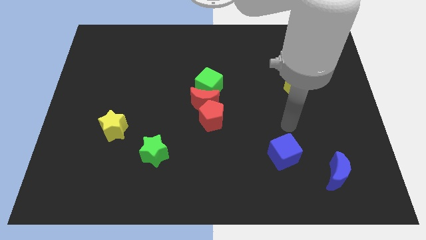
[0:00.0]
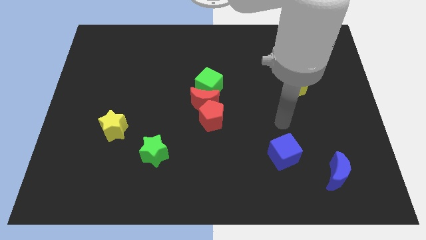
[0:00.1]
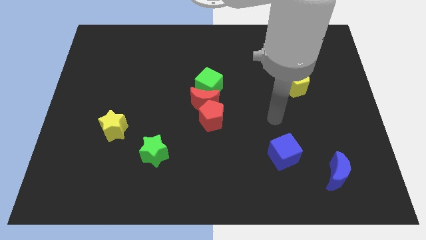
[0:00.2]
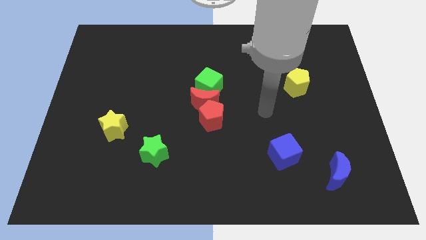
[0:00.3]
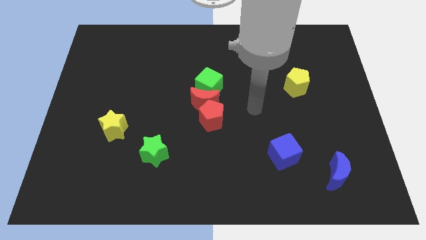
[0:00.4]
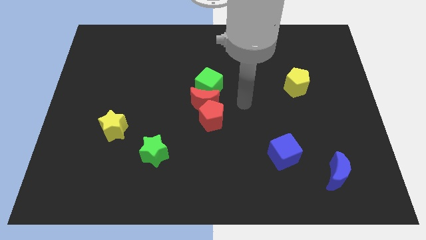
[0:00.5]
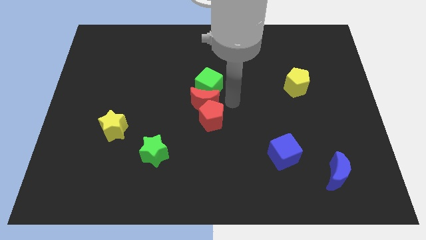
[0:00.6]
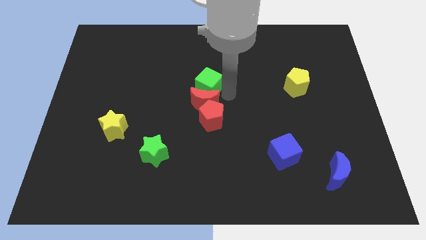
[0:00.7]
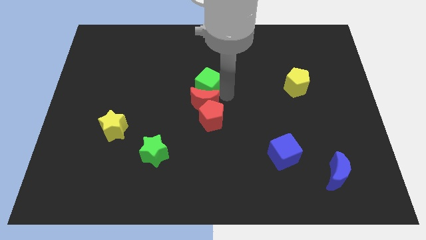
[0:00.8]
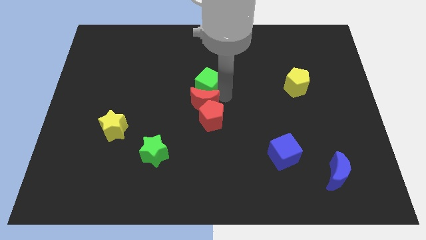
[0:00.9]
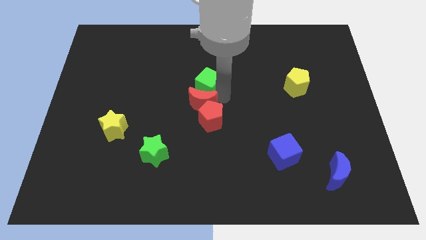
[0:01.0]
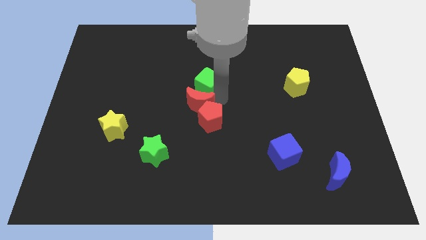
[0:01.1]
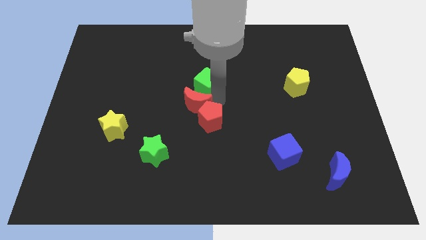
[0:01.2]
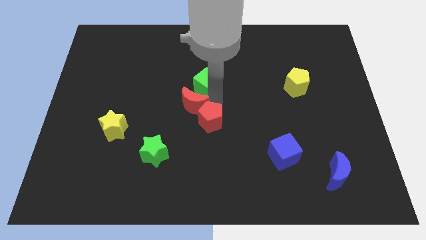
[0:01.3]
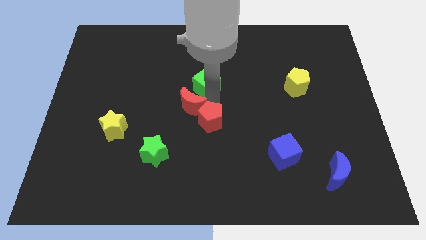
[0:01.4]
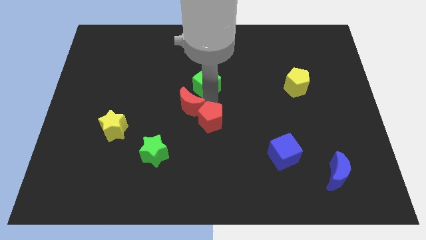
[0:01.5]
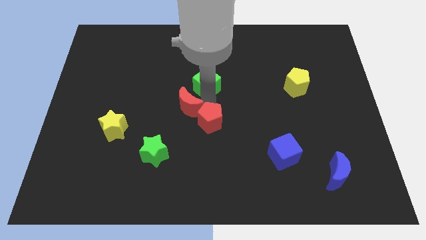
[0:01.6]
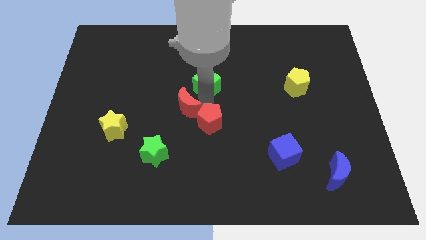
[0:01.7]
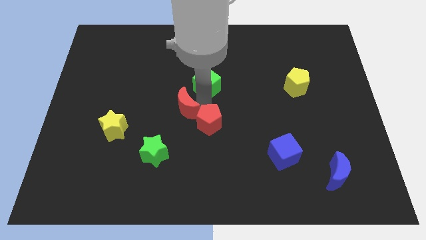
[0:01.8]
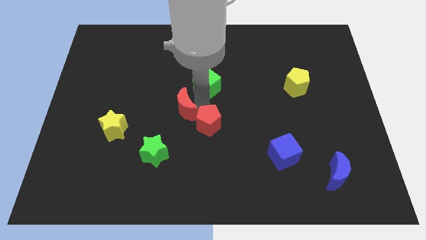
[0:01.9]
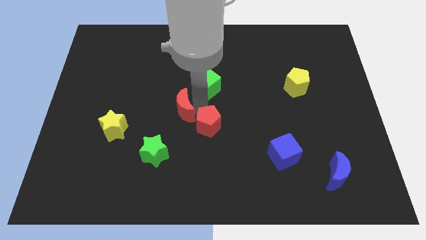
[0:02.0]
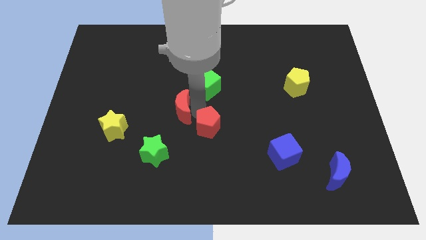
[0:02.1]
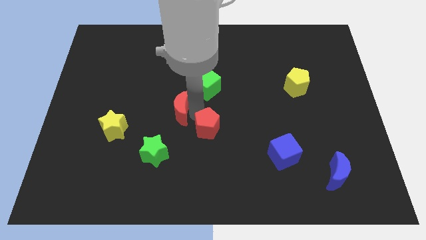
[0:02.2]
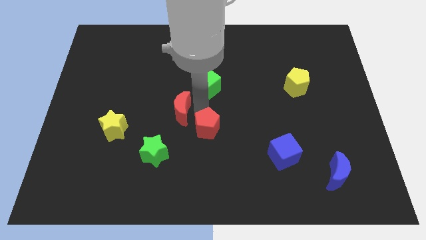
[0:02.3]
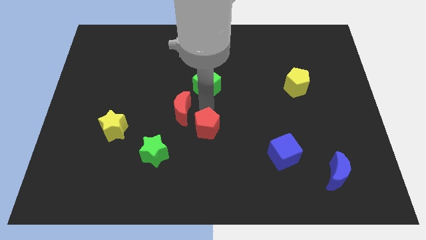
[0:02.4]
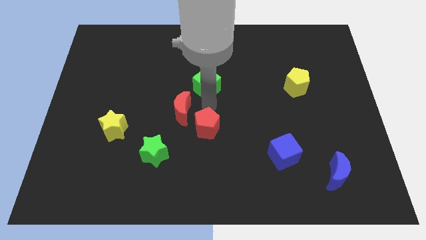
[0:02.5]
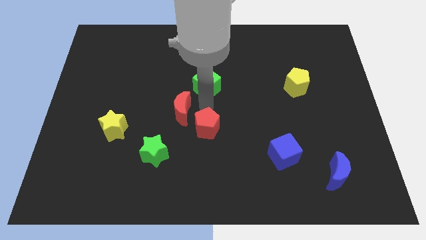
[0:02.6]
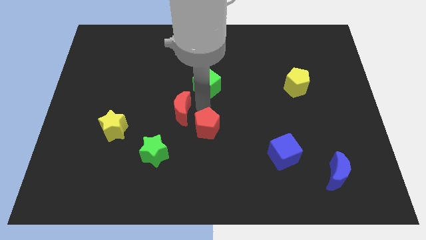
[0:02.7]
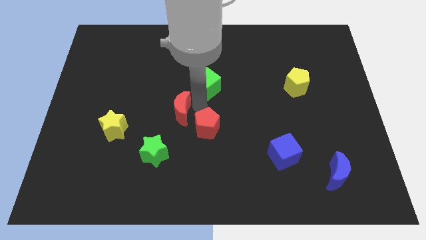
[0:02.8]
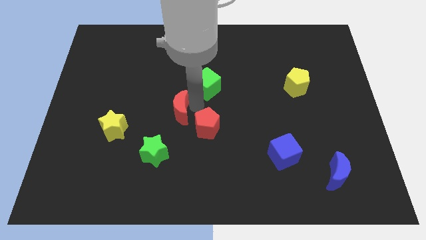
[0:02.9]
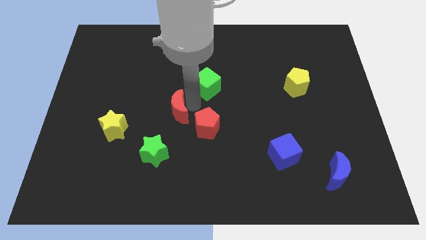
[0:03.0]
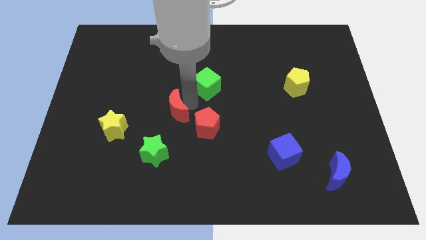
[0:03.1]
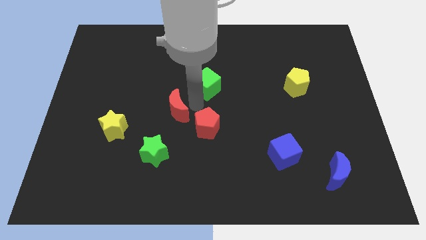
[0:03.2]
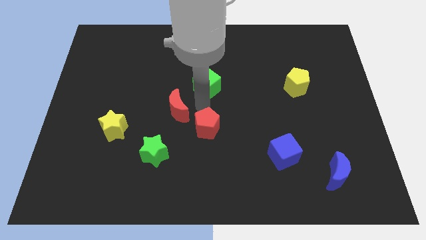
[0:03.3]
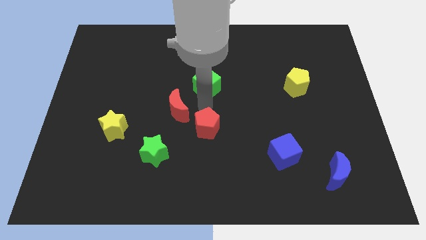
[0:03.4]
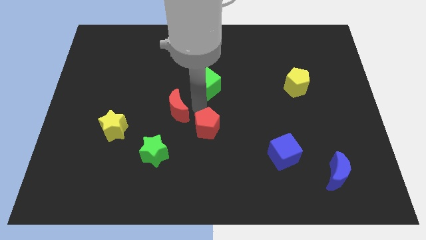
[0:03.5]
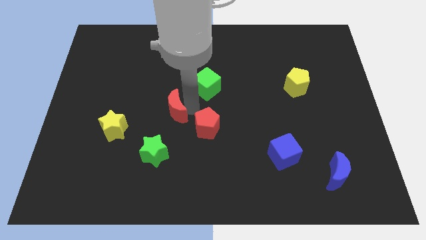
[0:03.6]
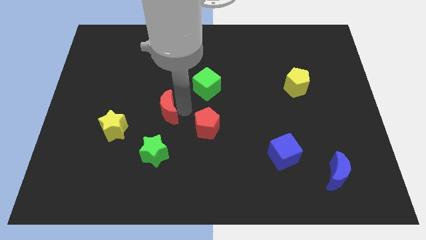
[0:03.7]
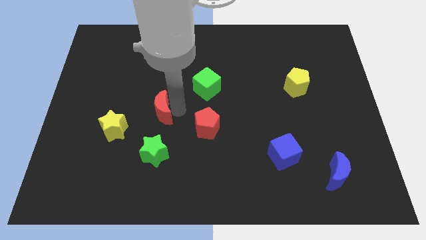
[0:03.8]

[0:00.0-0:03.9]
separate the red moon from the red pentagon and green cube

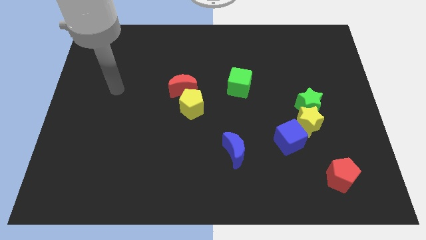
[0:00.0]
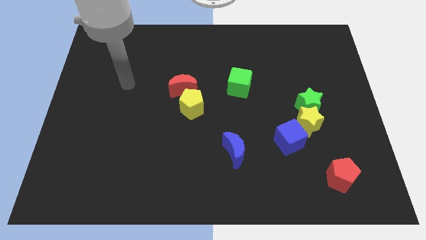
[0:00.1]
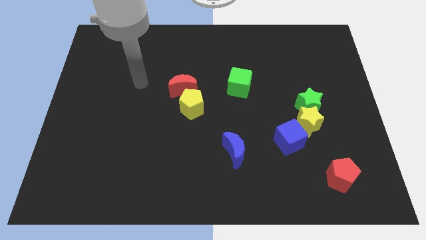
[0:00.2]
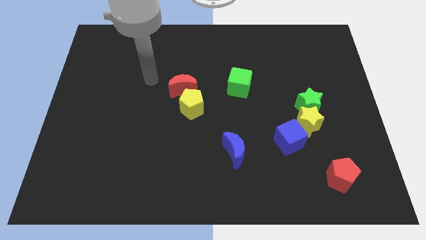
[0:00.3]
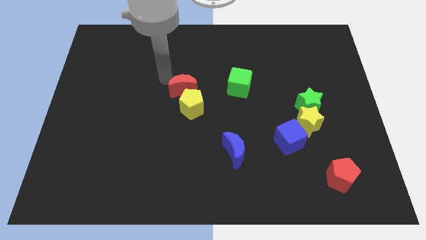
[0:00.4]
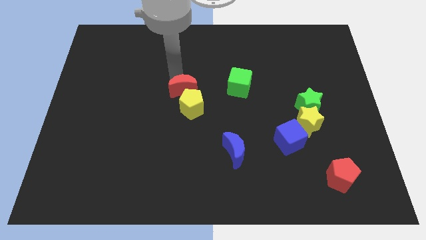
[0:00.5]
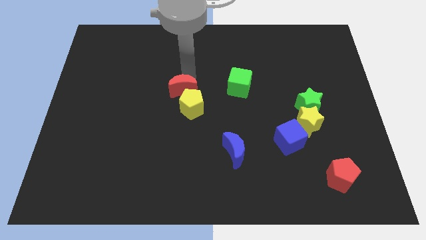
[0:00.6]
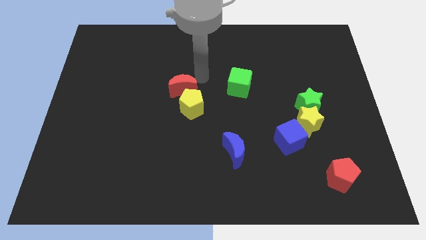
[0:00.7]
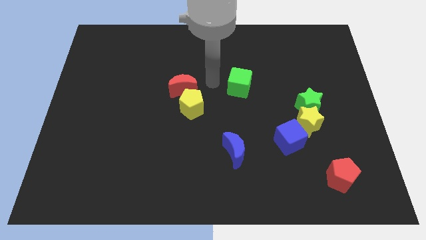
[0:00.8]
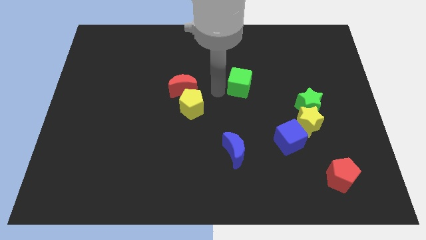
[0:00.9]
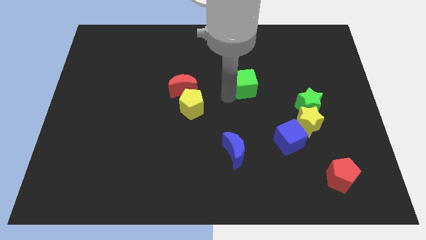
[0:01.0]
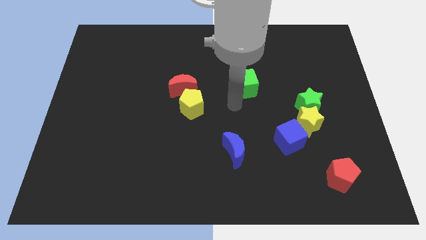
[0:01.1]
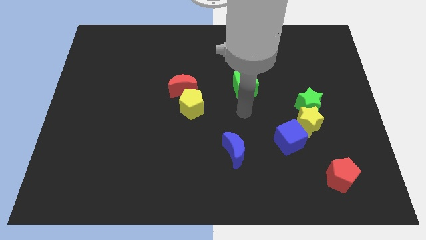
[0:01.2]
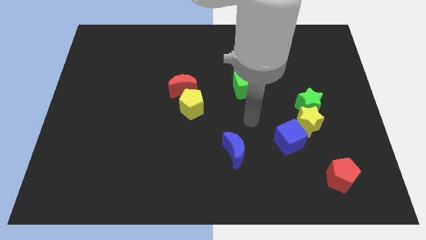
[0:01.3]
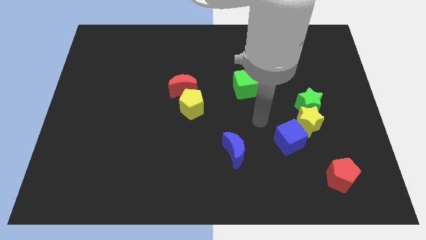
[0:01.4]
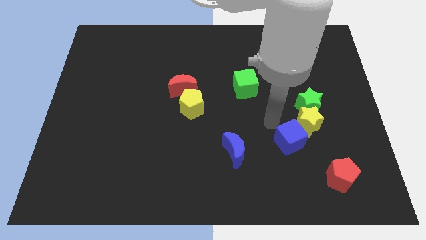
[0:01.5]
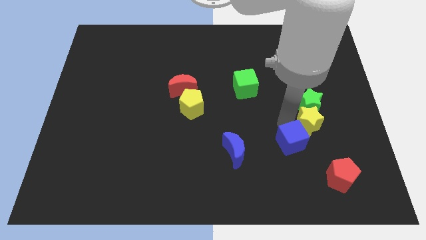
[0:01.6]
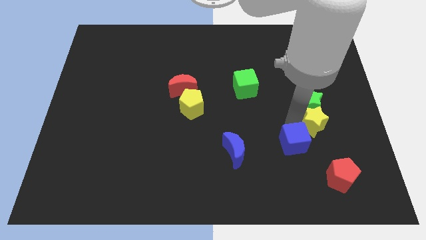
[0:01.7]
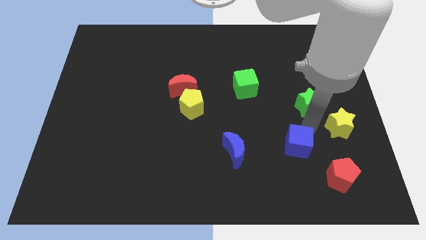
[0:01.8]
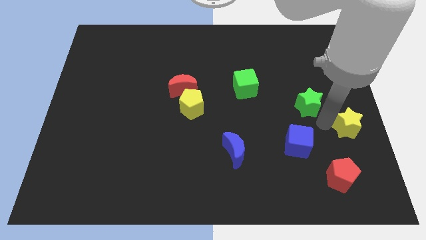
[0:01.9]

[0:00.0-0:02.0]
separate the green star from the yellow star

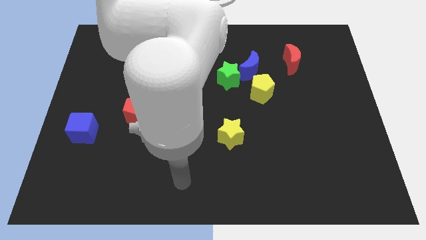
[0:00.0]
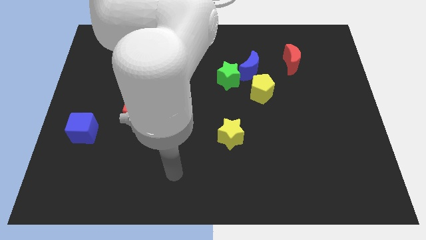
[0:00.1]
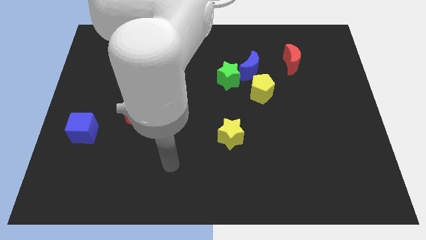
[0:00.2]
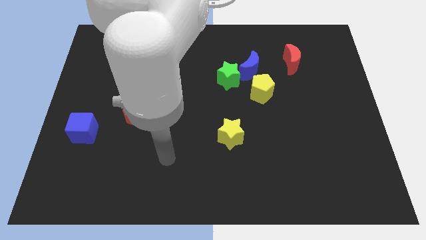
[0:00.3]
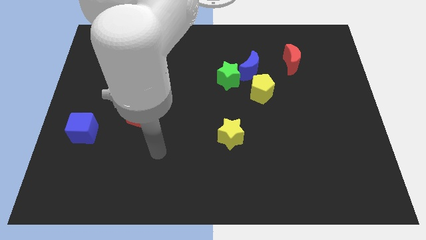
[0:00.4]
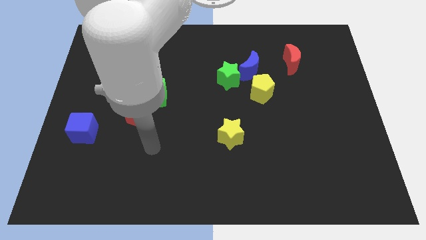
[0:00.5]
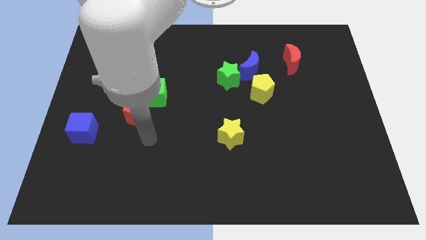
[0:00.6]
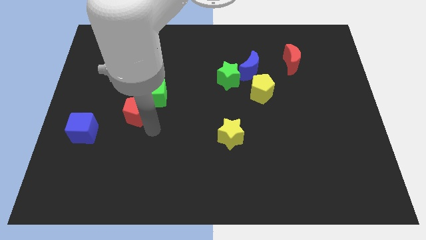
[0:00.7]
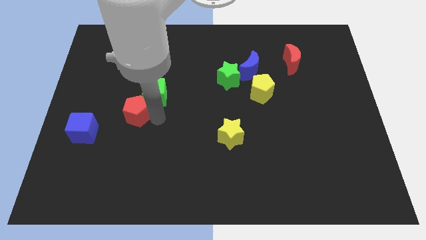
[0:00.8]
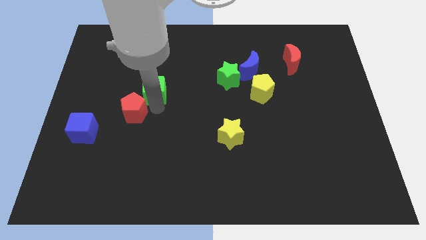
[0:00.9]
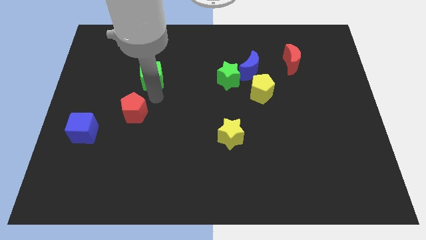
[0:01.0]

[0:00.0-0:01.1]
separate the red pentagon from the green cube

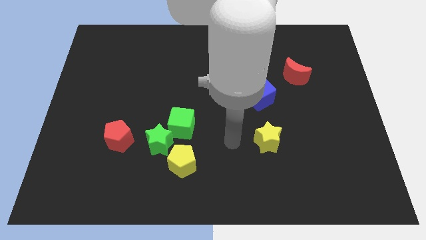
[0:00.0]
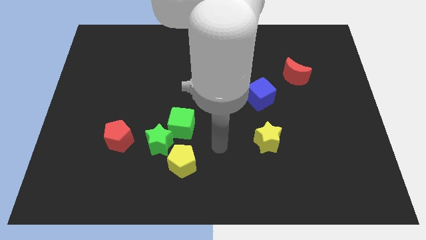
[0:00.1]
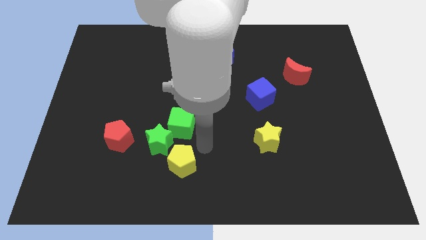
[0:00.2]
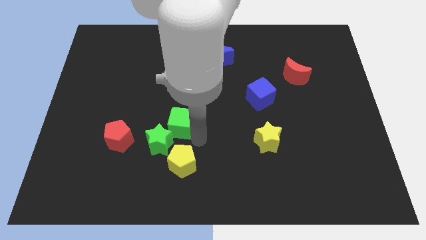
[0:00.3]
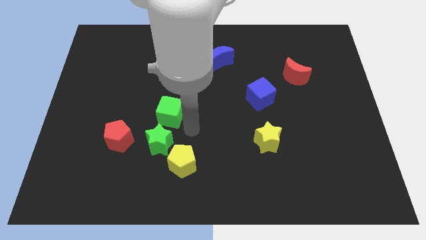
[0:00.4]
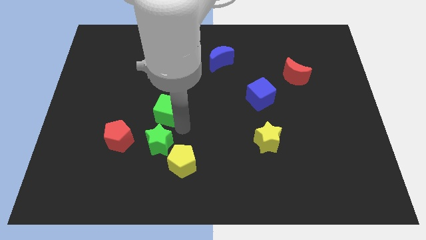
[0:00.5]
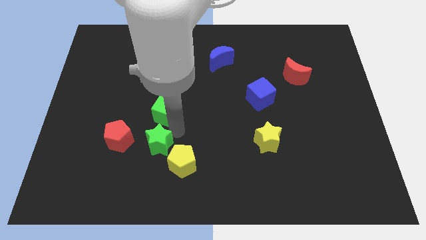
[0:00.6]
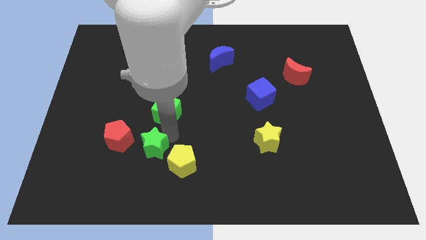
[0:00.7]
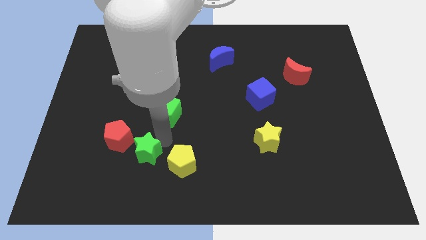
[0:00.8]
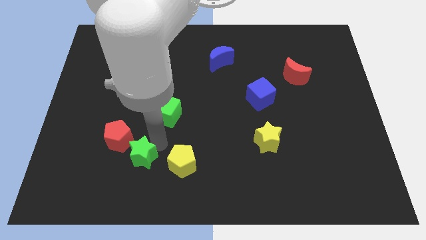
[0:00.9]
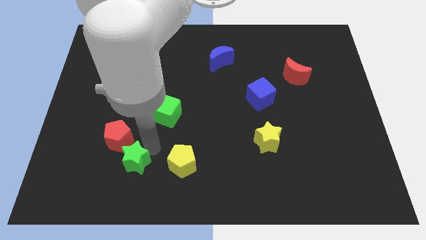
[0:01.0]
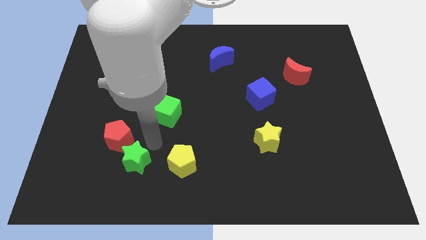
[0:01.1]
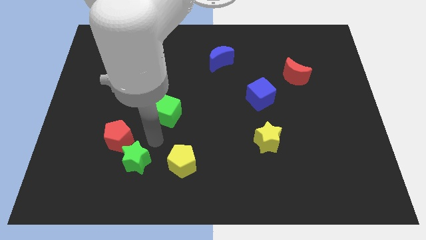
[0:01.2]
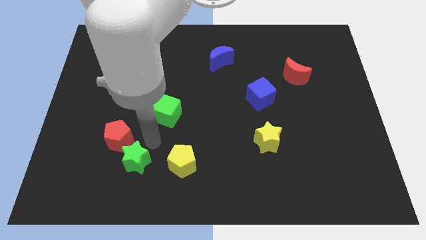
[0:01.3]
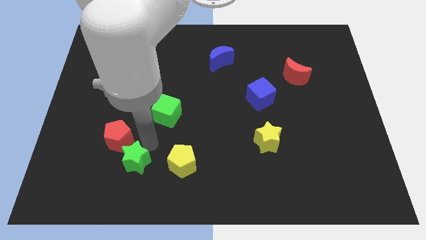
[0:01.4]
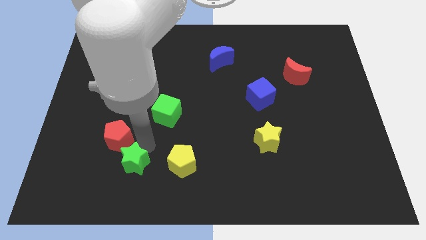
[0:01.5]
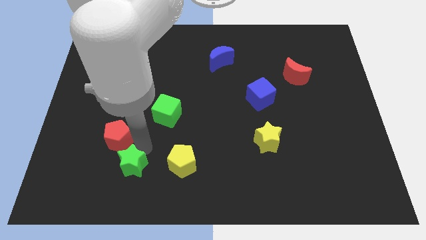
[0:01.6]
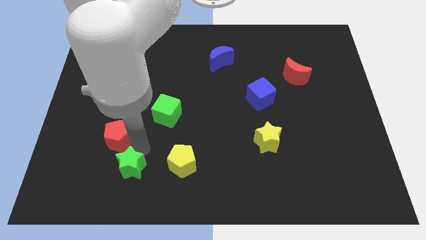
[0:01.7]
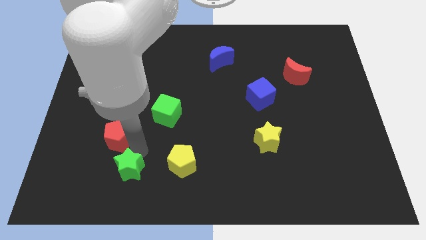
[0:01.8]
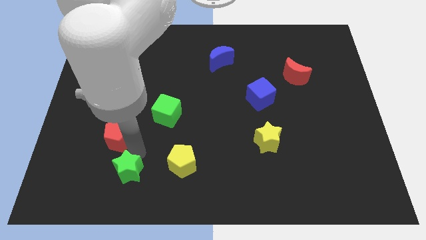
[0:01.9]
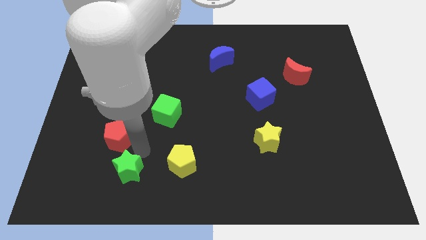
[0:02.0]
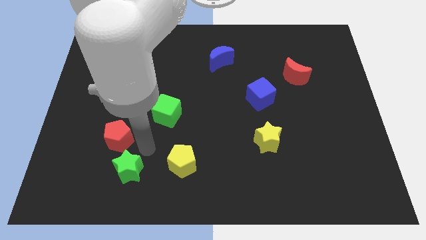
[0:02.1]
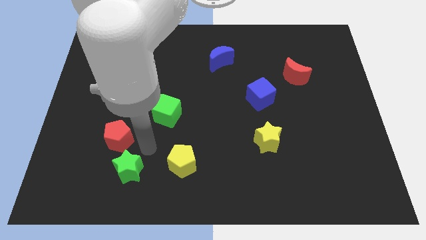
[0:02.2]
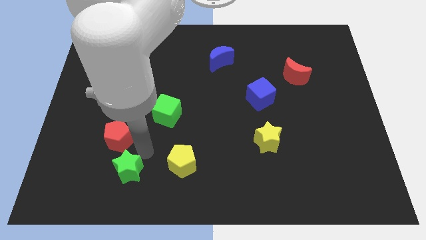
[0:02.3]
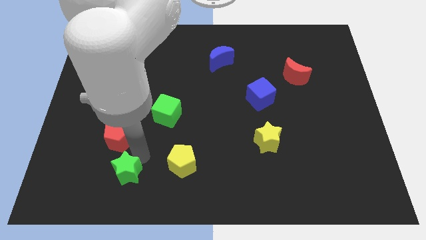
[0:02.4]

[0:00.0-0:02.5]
pull the green star apart from the green cube, yellow pentagon, and red pentagon
